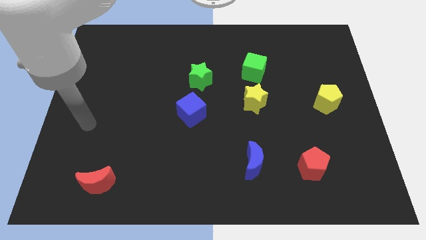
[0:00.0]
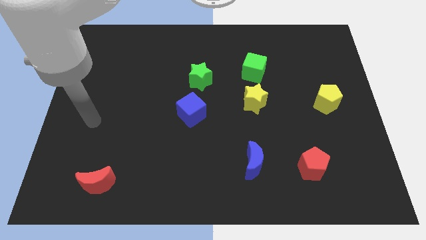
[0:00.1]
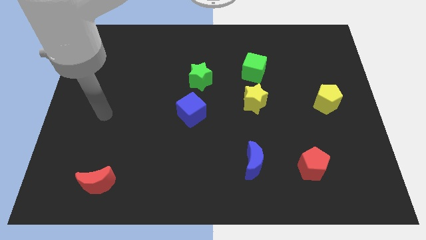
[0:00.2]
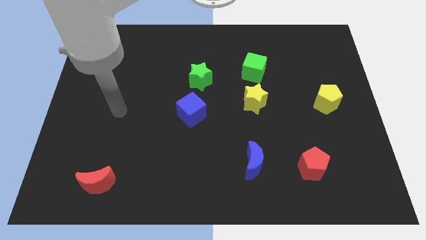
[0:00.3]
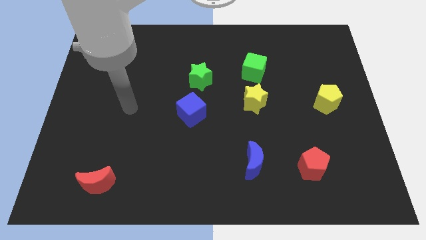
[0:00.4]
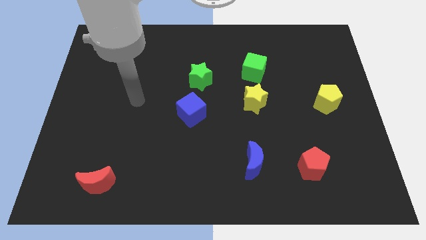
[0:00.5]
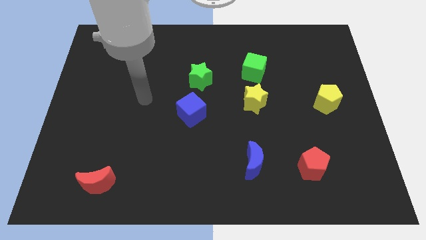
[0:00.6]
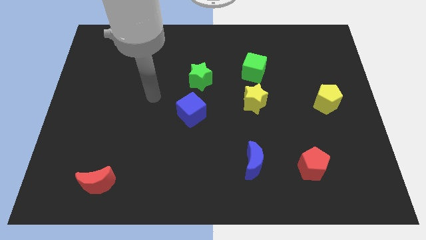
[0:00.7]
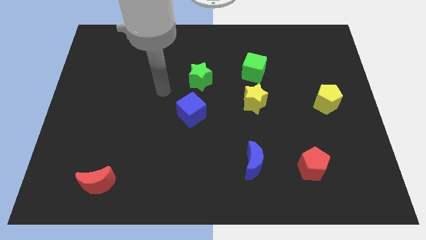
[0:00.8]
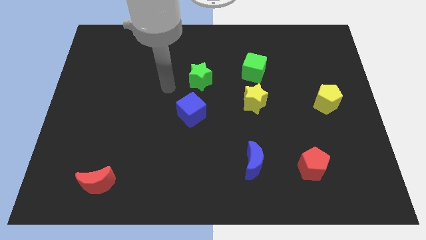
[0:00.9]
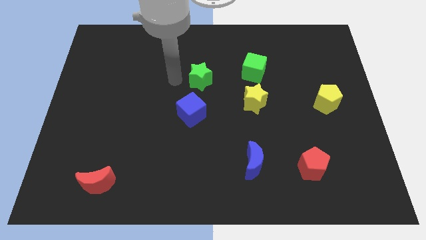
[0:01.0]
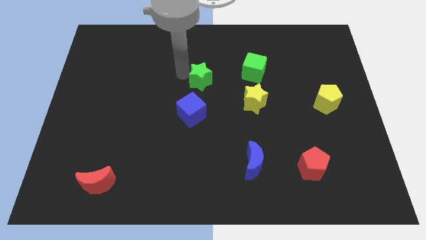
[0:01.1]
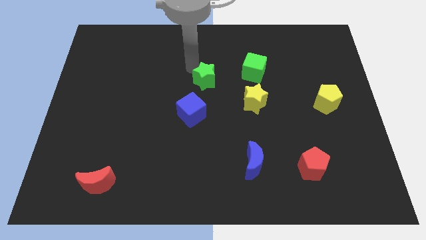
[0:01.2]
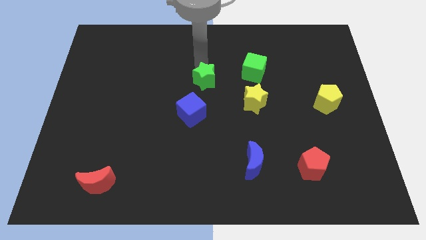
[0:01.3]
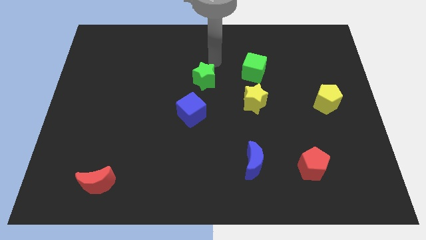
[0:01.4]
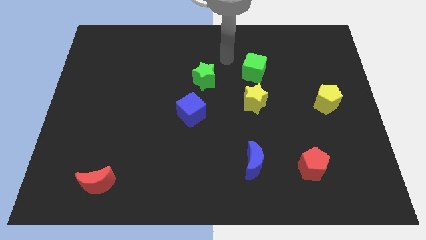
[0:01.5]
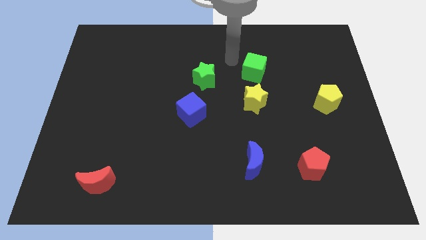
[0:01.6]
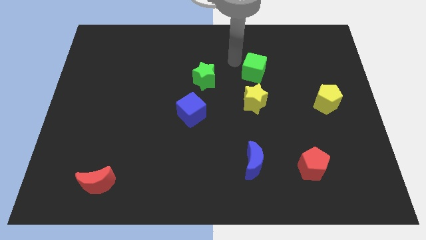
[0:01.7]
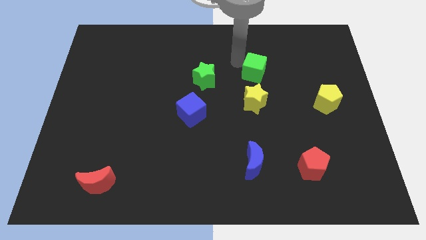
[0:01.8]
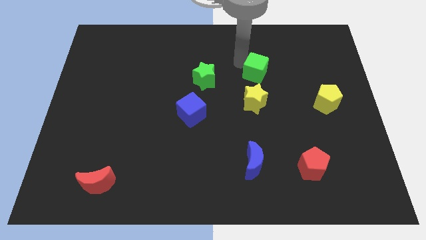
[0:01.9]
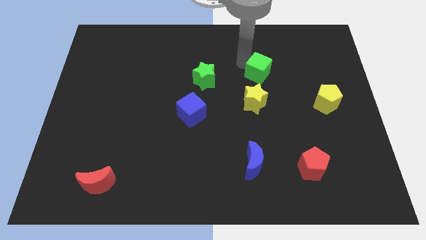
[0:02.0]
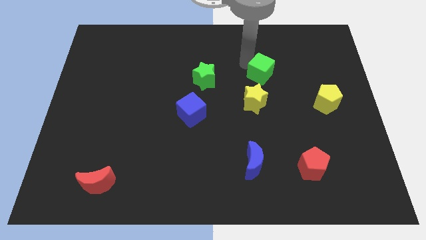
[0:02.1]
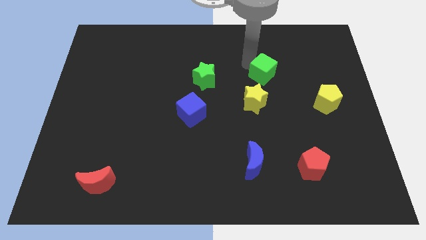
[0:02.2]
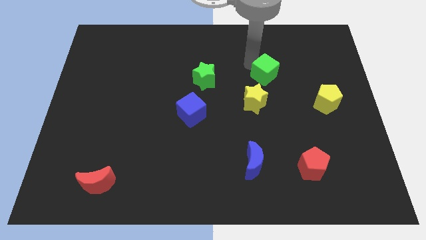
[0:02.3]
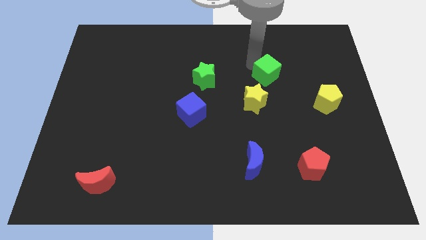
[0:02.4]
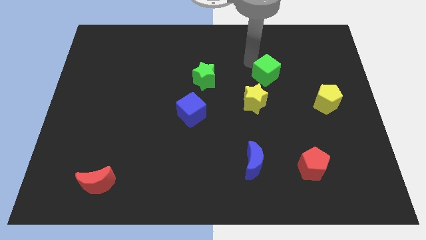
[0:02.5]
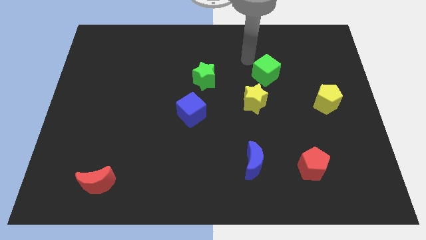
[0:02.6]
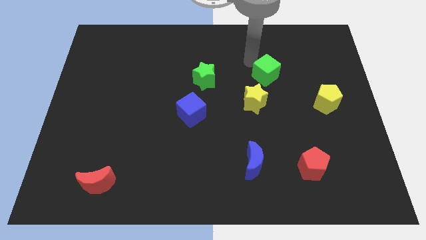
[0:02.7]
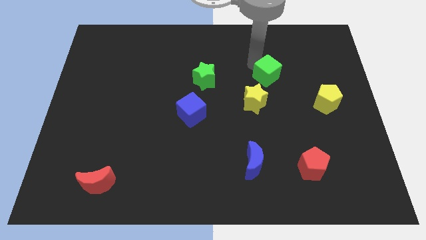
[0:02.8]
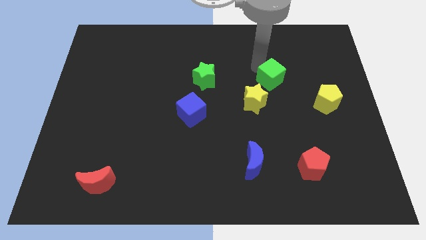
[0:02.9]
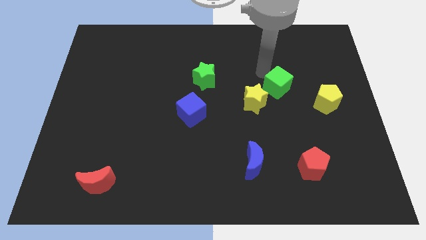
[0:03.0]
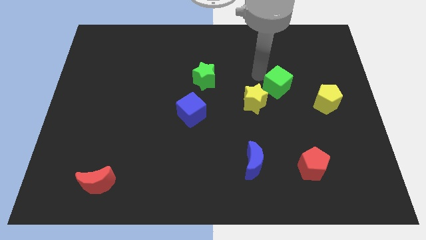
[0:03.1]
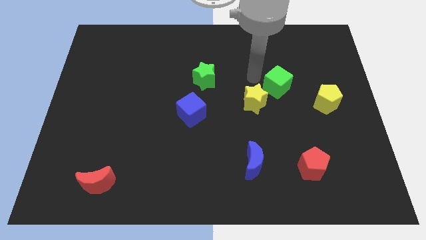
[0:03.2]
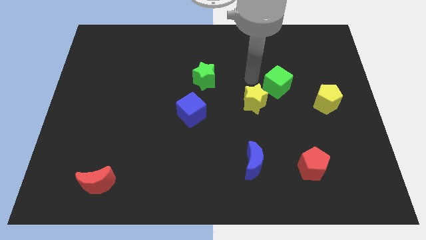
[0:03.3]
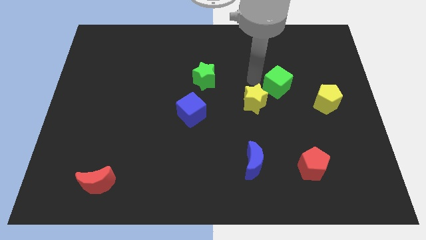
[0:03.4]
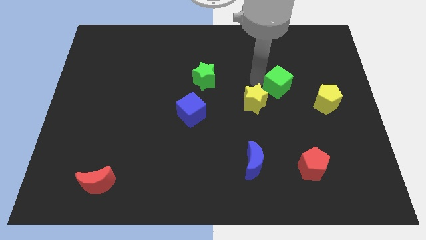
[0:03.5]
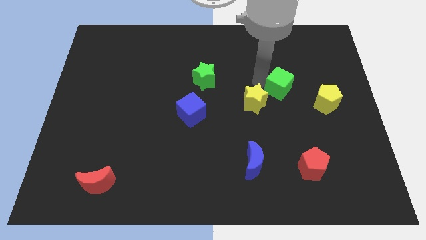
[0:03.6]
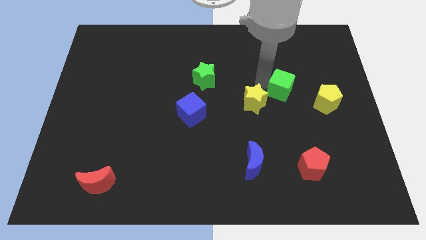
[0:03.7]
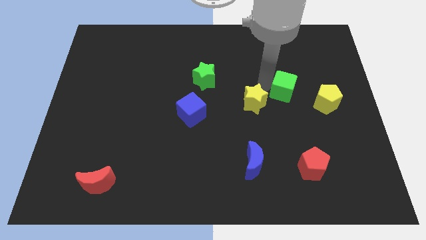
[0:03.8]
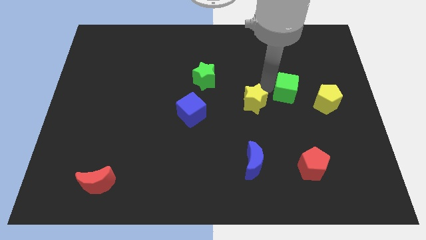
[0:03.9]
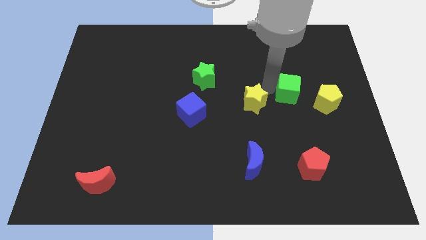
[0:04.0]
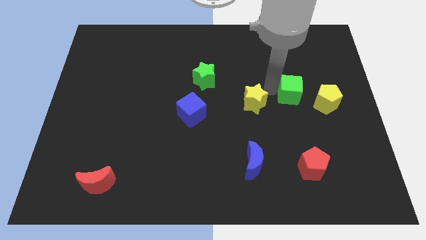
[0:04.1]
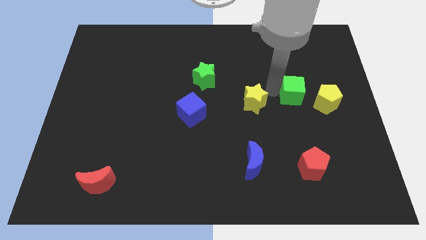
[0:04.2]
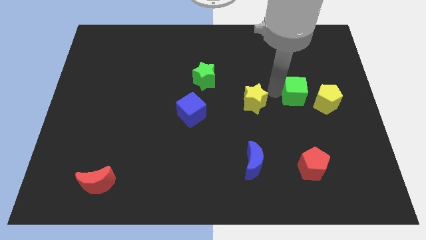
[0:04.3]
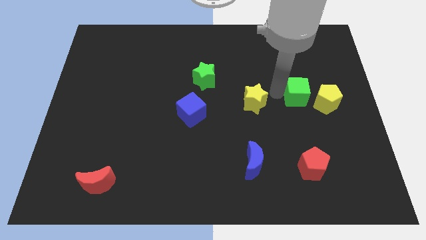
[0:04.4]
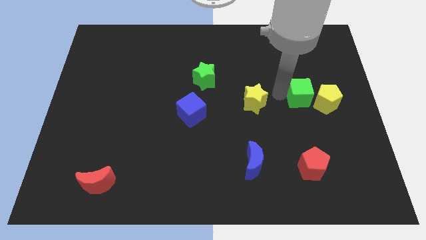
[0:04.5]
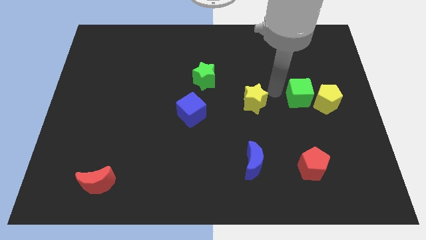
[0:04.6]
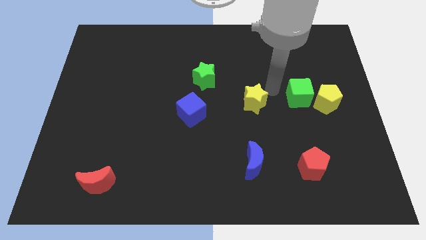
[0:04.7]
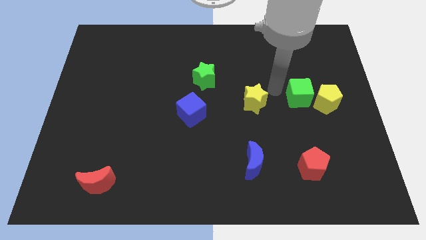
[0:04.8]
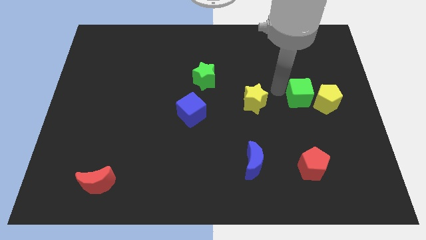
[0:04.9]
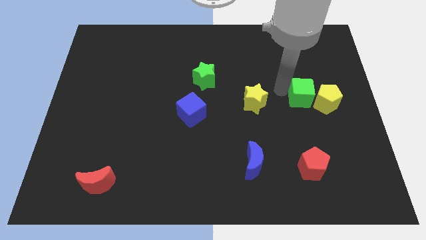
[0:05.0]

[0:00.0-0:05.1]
move the green cube towards the yellow pentagon

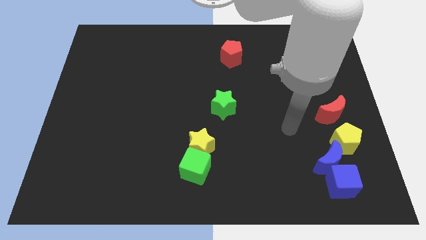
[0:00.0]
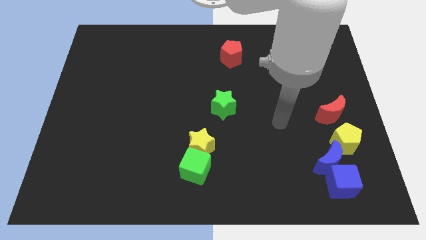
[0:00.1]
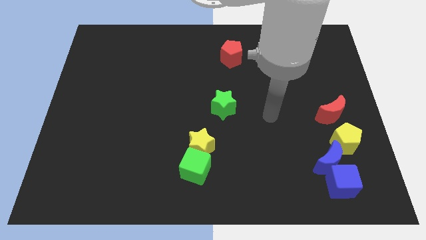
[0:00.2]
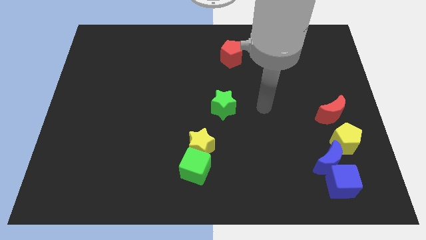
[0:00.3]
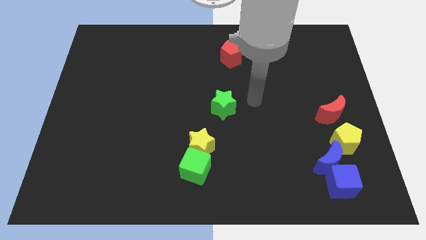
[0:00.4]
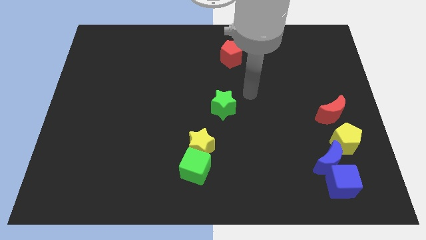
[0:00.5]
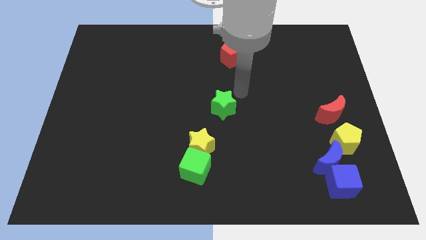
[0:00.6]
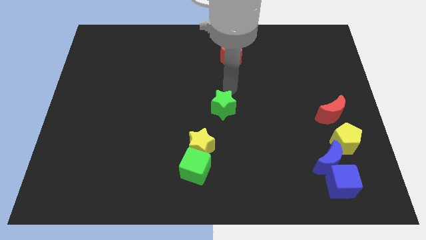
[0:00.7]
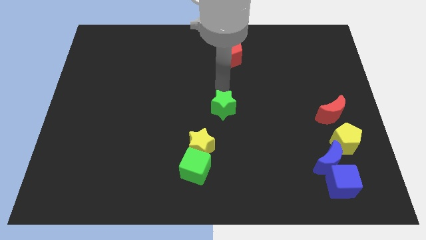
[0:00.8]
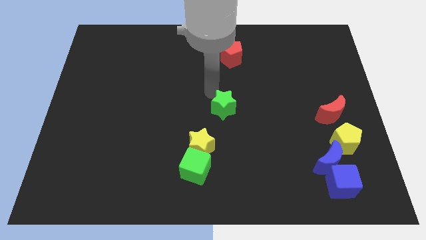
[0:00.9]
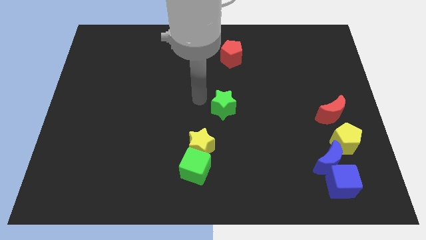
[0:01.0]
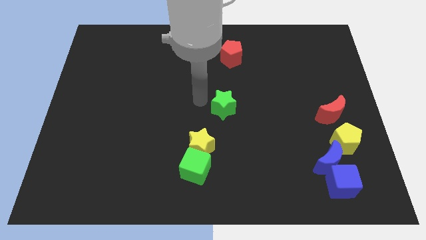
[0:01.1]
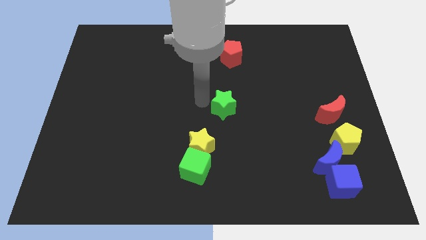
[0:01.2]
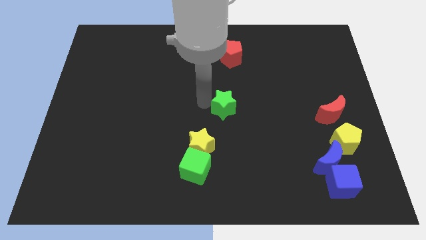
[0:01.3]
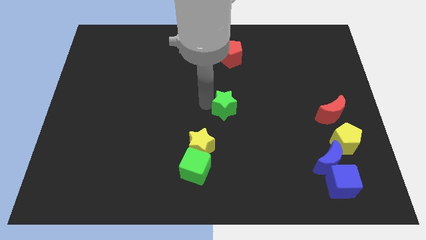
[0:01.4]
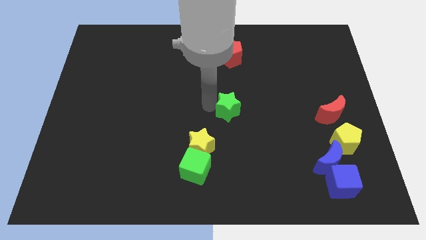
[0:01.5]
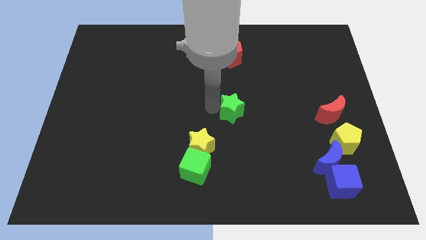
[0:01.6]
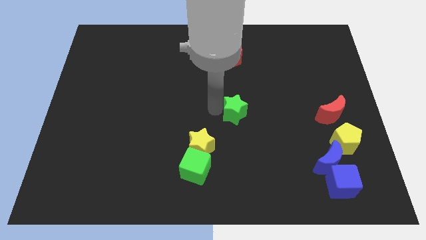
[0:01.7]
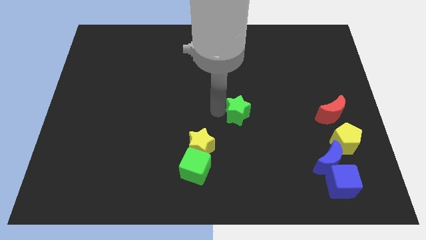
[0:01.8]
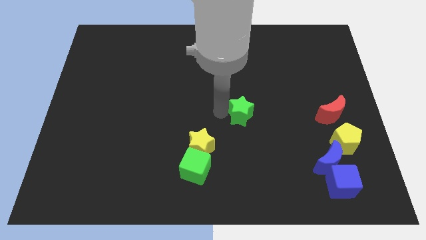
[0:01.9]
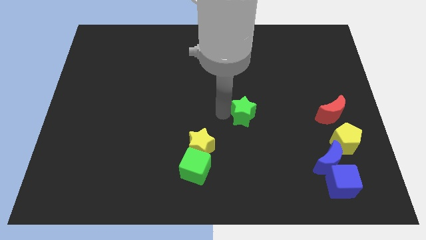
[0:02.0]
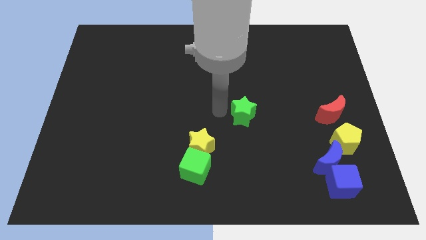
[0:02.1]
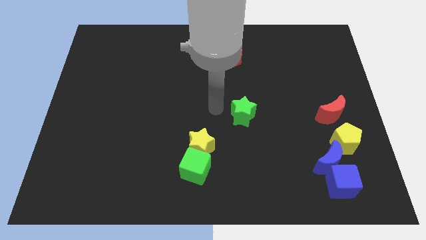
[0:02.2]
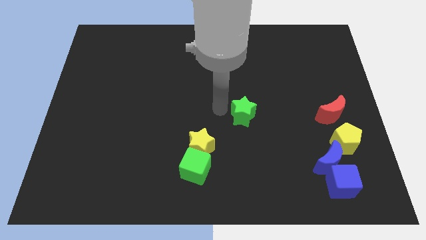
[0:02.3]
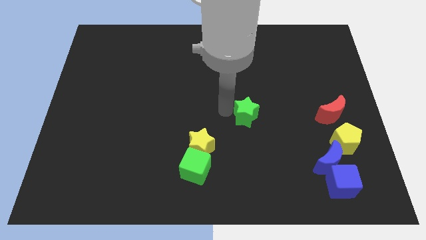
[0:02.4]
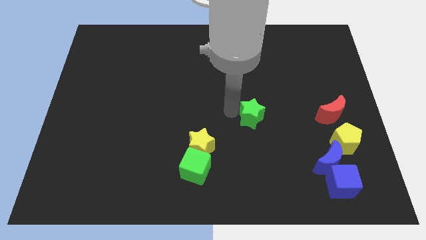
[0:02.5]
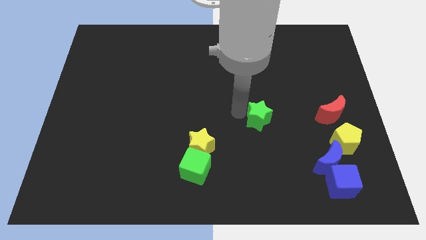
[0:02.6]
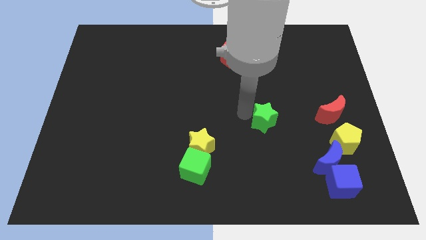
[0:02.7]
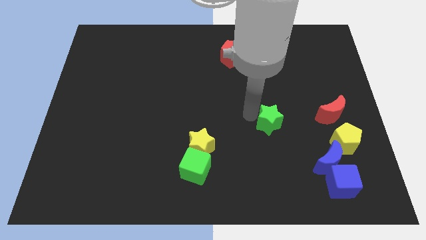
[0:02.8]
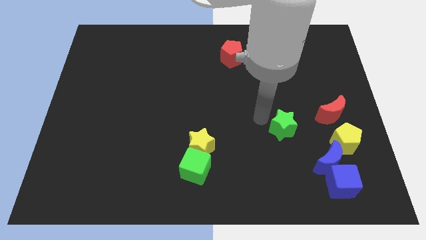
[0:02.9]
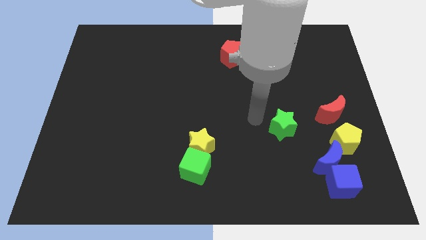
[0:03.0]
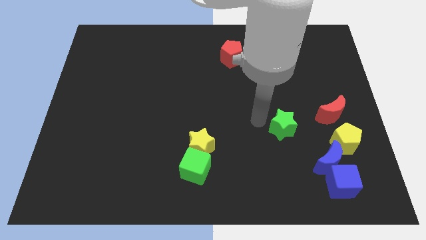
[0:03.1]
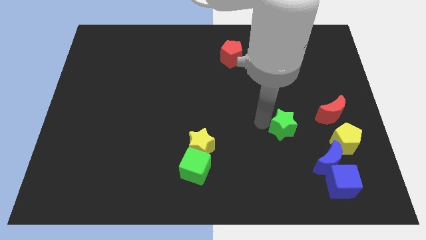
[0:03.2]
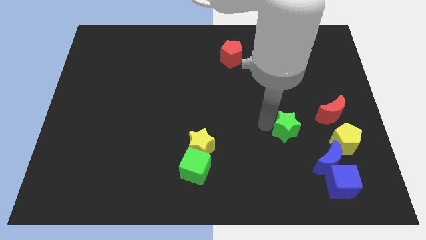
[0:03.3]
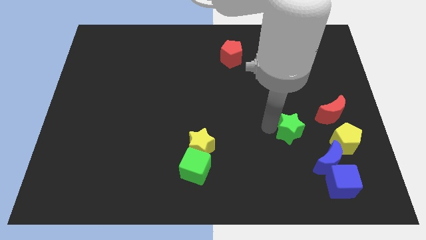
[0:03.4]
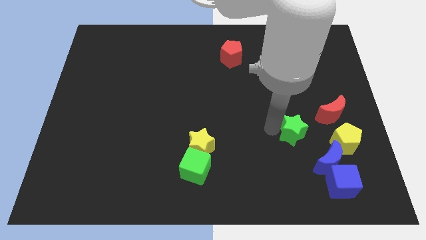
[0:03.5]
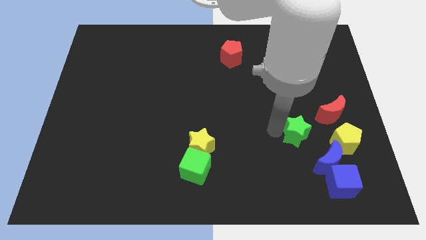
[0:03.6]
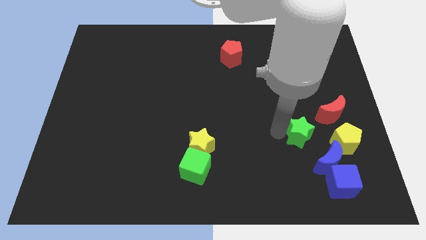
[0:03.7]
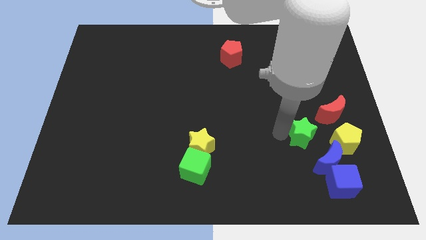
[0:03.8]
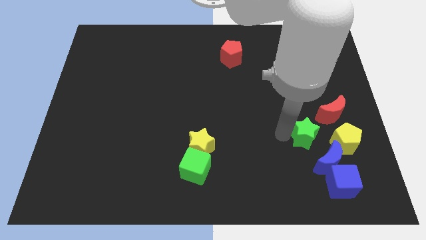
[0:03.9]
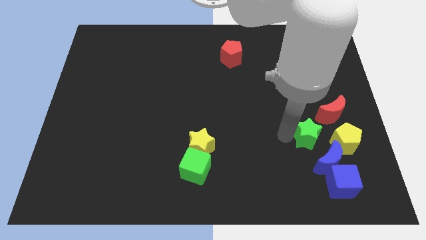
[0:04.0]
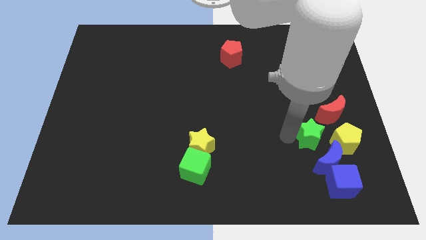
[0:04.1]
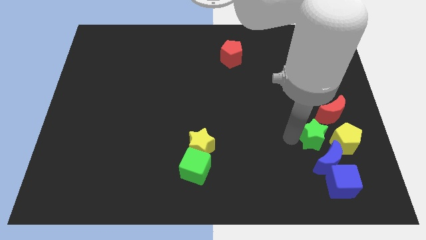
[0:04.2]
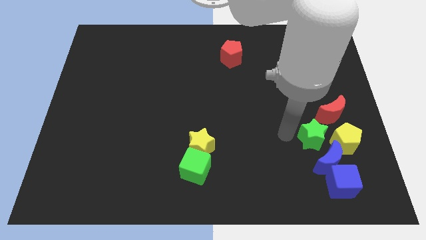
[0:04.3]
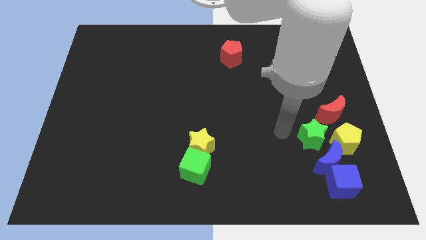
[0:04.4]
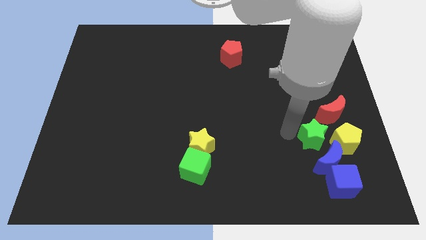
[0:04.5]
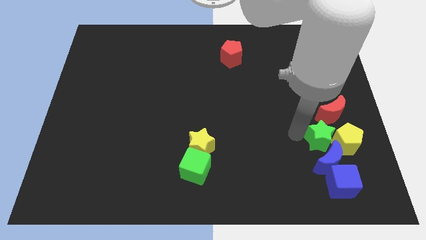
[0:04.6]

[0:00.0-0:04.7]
put the green star next to the yellow pentagon
